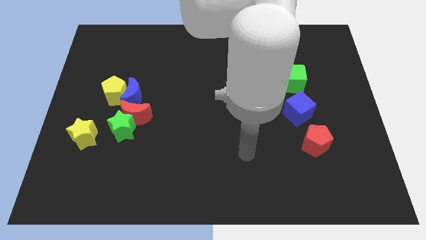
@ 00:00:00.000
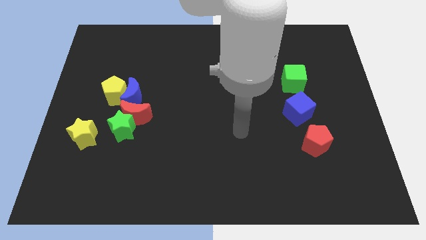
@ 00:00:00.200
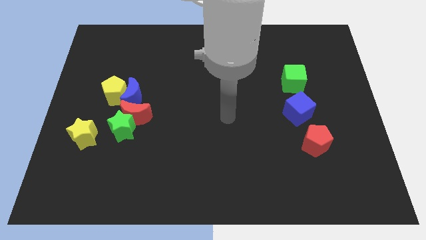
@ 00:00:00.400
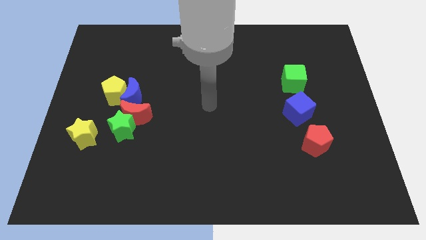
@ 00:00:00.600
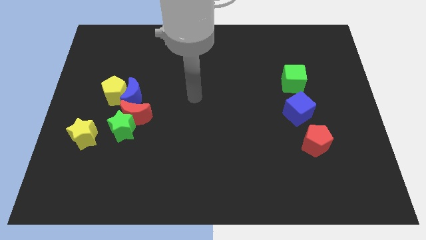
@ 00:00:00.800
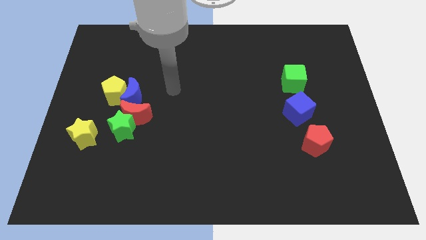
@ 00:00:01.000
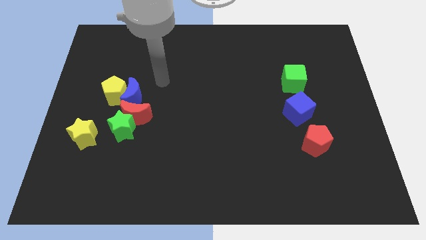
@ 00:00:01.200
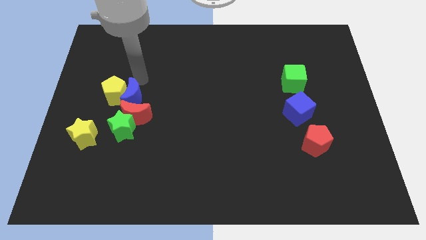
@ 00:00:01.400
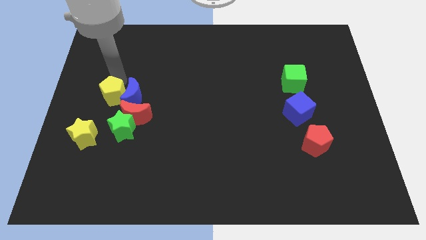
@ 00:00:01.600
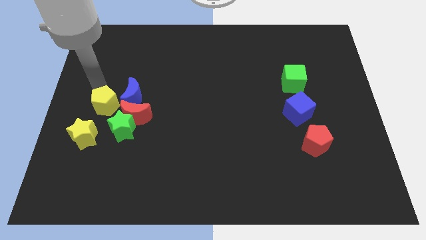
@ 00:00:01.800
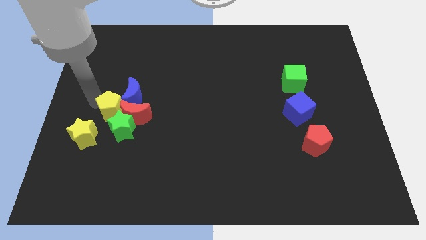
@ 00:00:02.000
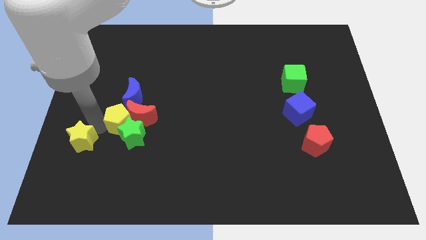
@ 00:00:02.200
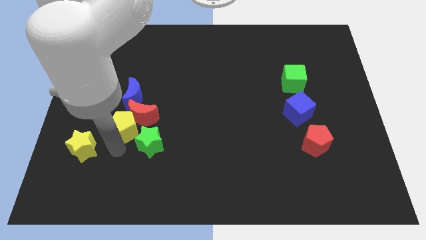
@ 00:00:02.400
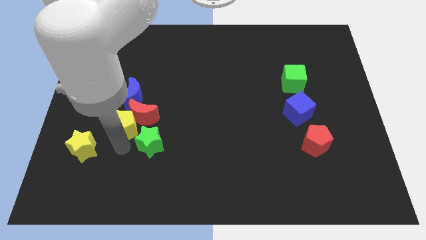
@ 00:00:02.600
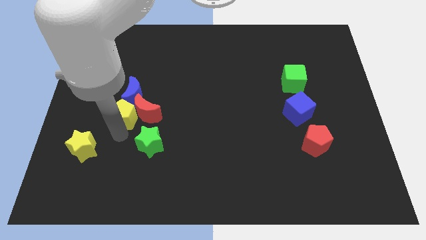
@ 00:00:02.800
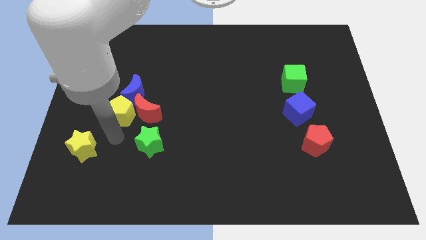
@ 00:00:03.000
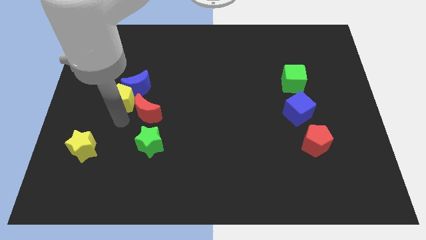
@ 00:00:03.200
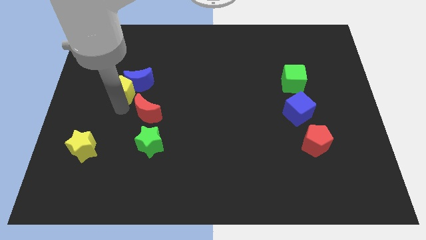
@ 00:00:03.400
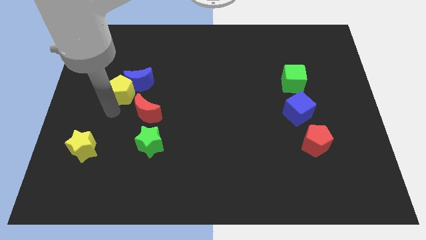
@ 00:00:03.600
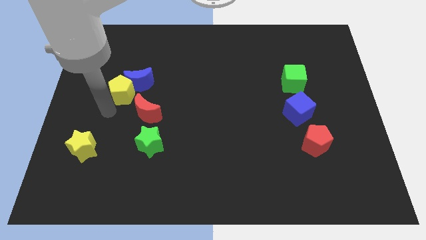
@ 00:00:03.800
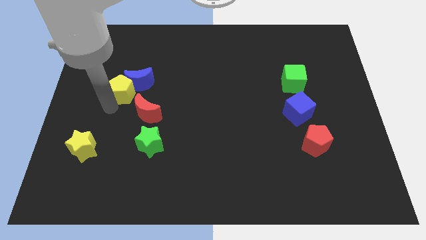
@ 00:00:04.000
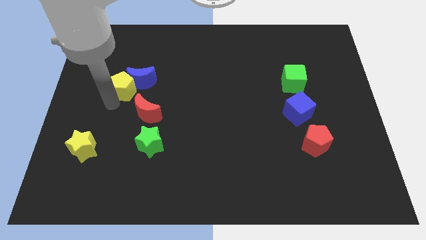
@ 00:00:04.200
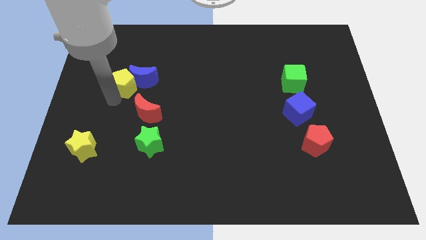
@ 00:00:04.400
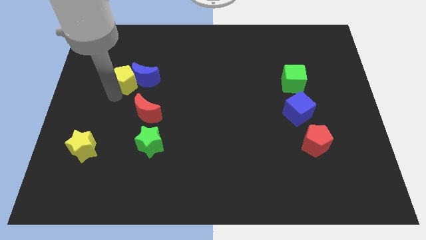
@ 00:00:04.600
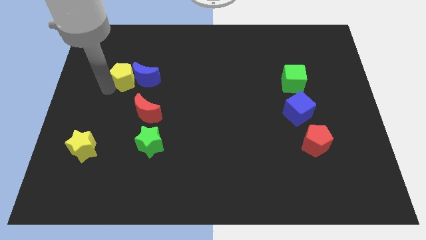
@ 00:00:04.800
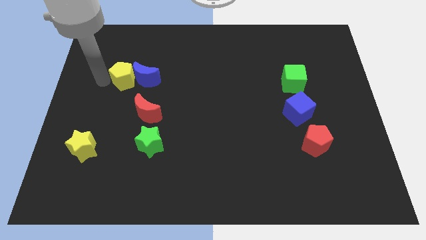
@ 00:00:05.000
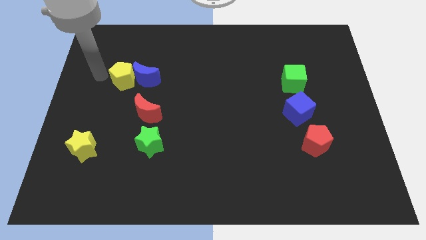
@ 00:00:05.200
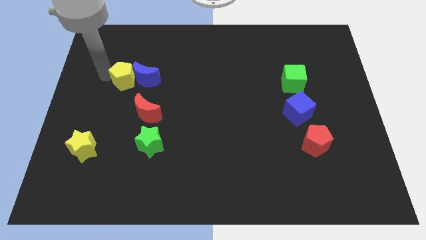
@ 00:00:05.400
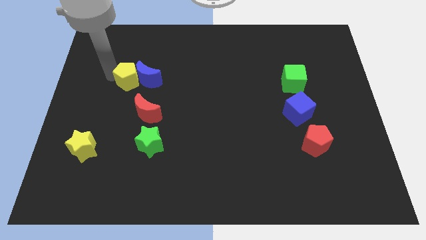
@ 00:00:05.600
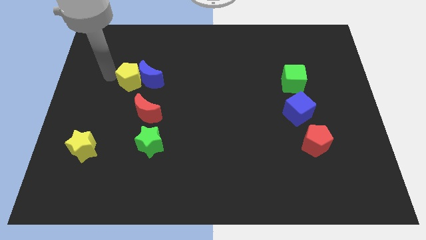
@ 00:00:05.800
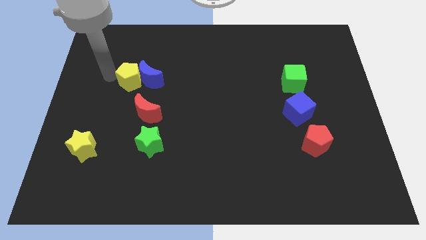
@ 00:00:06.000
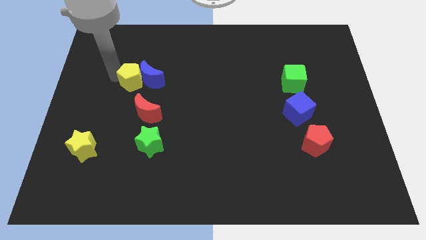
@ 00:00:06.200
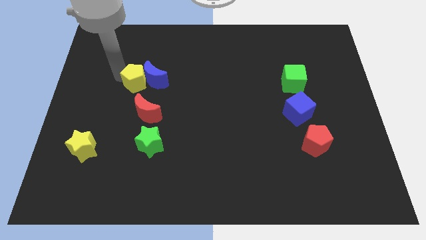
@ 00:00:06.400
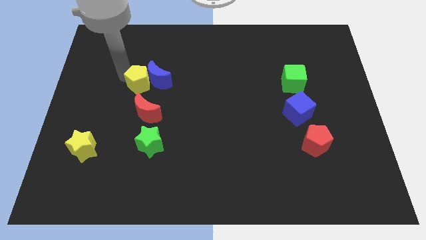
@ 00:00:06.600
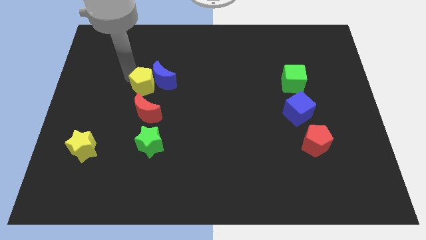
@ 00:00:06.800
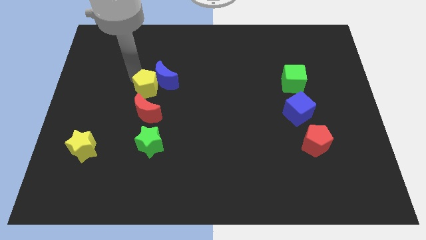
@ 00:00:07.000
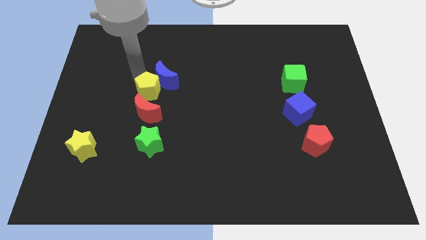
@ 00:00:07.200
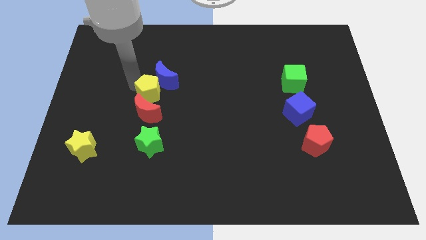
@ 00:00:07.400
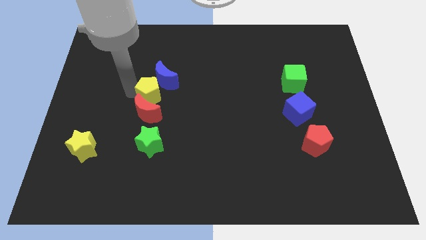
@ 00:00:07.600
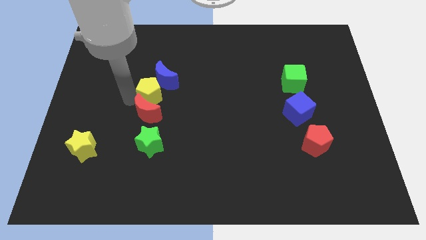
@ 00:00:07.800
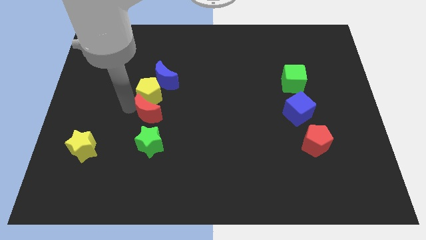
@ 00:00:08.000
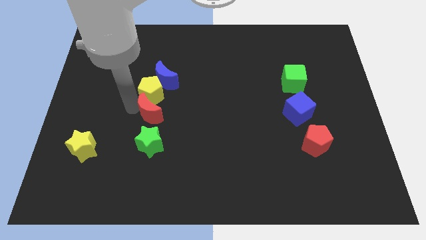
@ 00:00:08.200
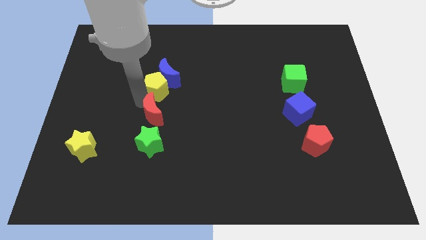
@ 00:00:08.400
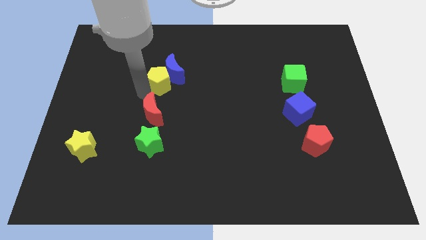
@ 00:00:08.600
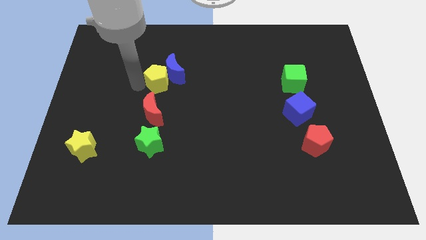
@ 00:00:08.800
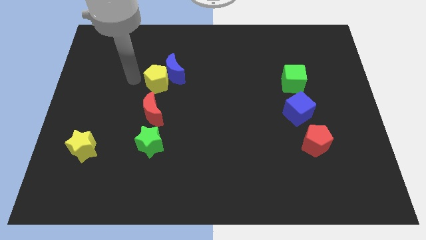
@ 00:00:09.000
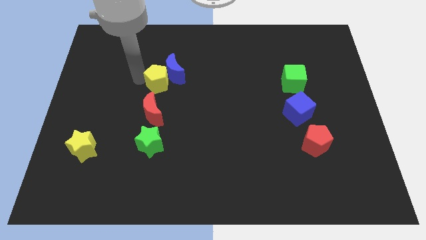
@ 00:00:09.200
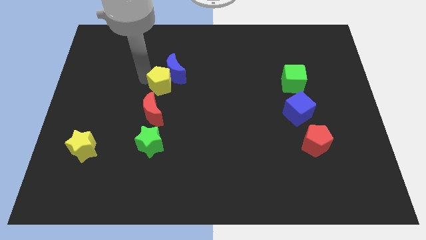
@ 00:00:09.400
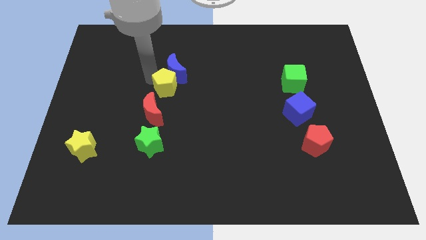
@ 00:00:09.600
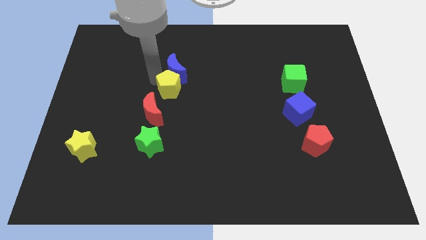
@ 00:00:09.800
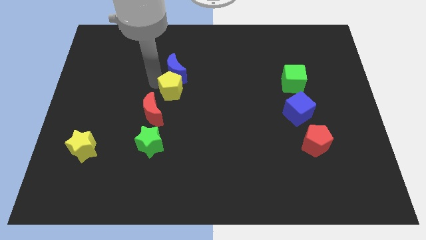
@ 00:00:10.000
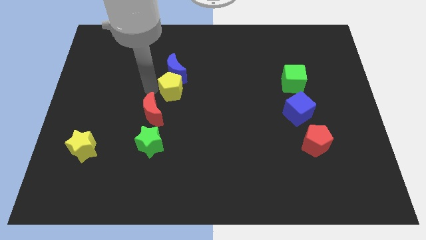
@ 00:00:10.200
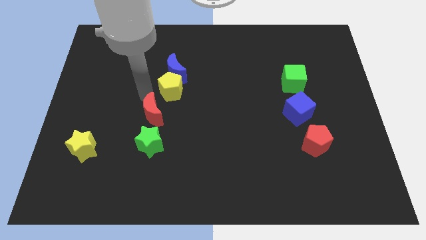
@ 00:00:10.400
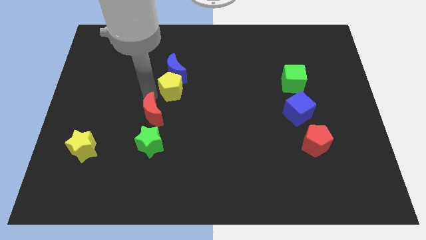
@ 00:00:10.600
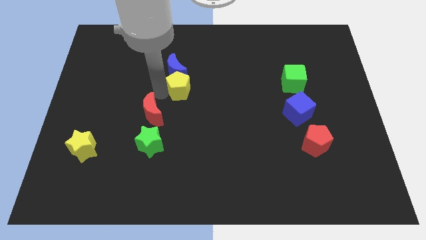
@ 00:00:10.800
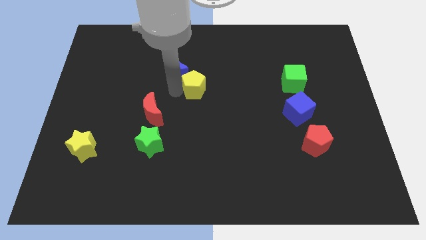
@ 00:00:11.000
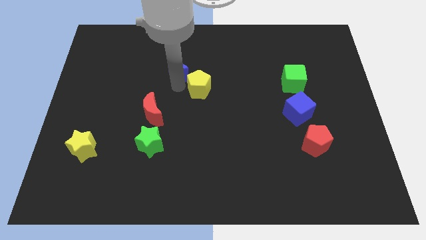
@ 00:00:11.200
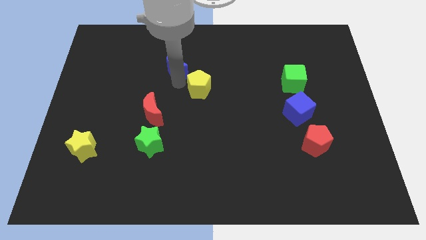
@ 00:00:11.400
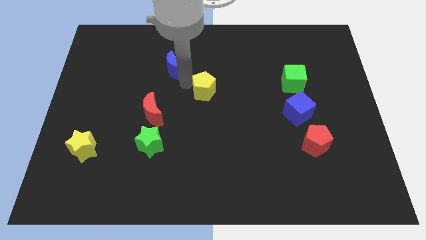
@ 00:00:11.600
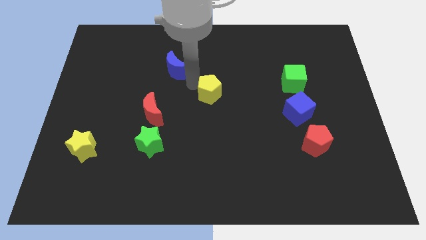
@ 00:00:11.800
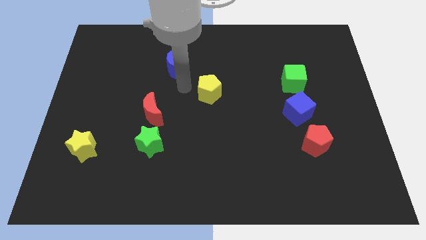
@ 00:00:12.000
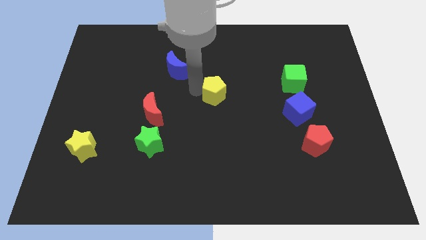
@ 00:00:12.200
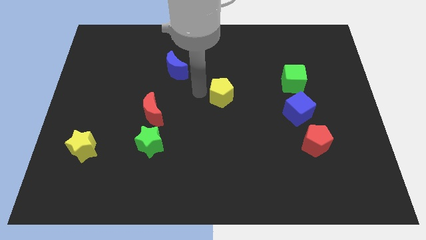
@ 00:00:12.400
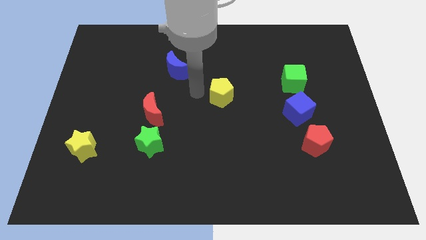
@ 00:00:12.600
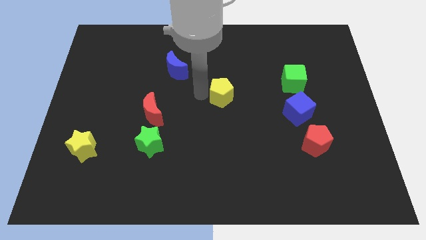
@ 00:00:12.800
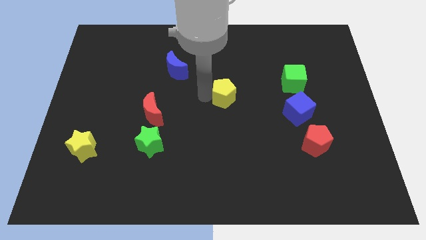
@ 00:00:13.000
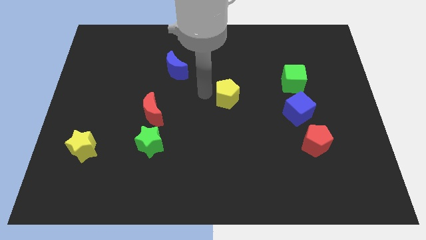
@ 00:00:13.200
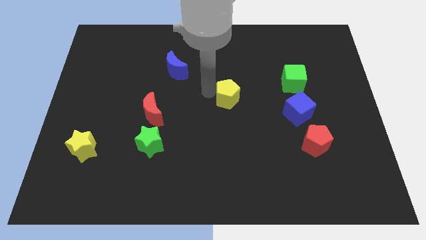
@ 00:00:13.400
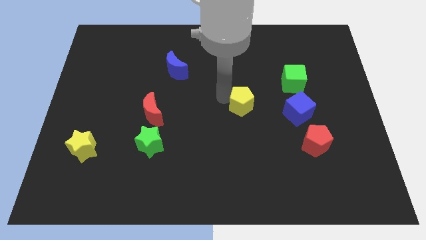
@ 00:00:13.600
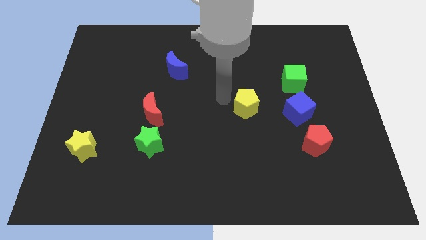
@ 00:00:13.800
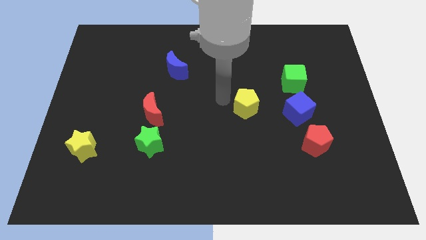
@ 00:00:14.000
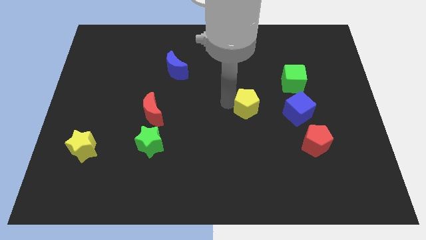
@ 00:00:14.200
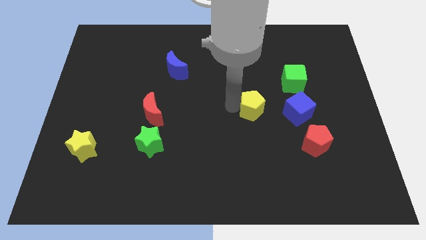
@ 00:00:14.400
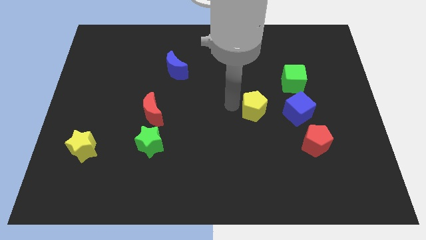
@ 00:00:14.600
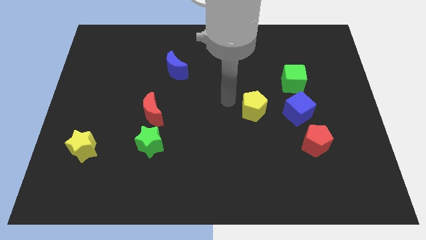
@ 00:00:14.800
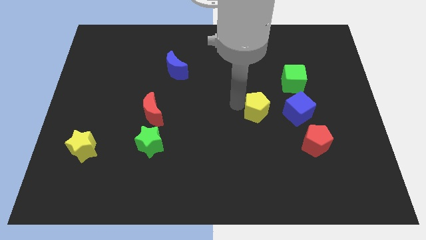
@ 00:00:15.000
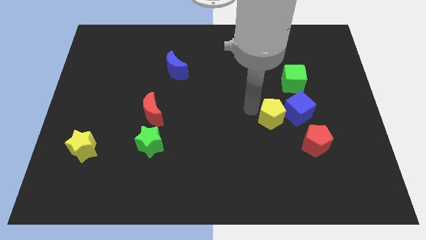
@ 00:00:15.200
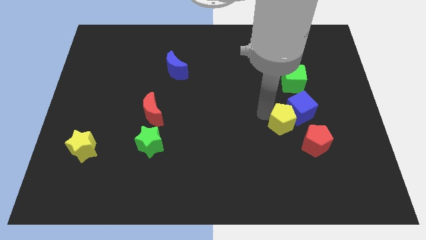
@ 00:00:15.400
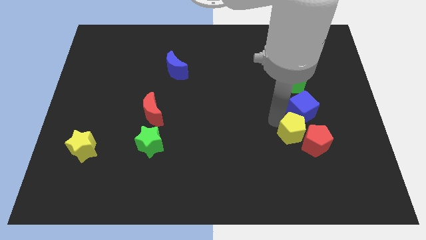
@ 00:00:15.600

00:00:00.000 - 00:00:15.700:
put the yellow pentagon to the red pentagon
